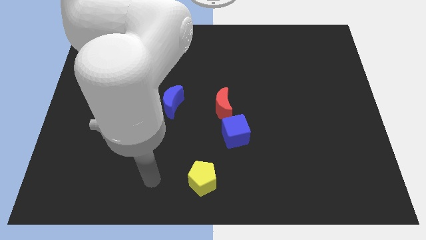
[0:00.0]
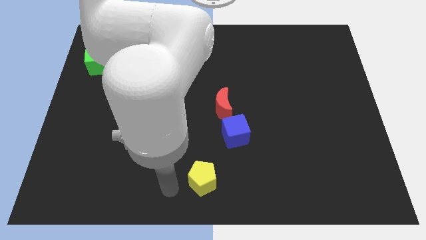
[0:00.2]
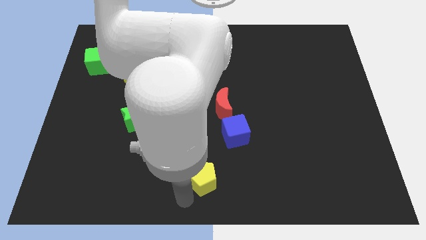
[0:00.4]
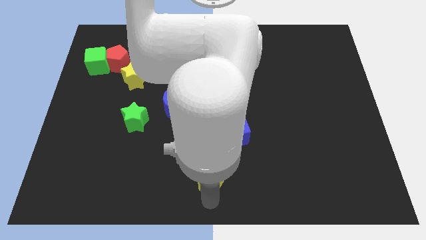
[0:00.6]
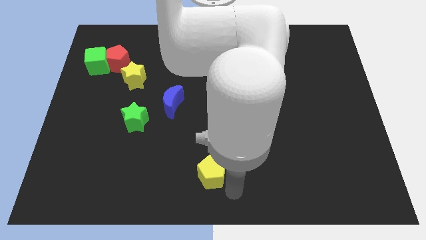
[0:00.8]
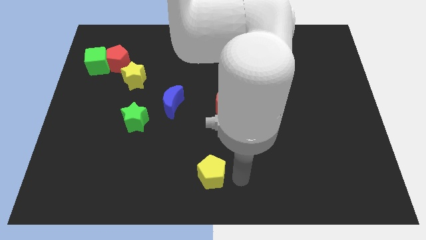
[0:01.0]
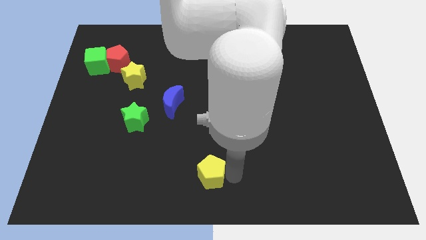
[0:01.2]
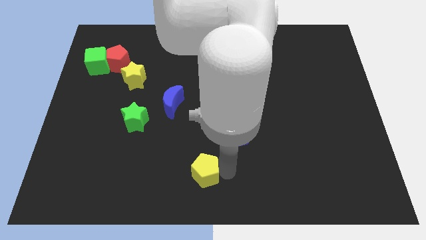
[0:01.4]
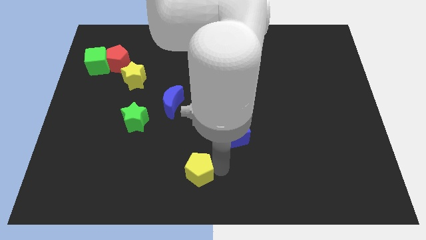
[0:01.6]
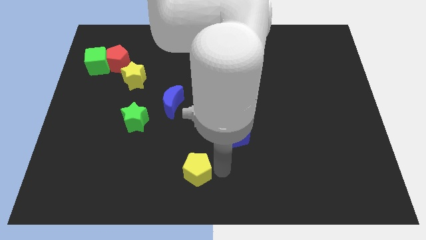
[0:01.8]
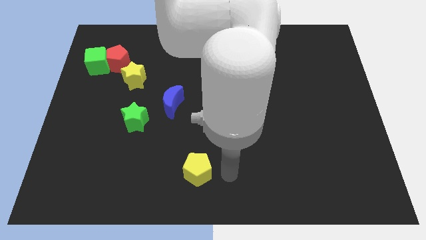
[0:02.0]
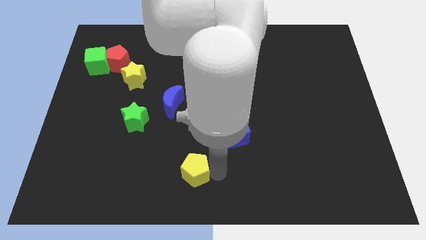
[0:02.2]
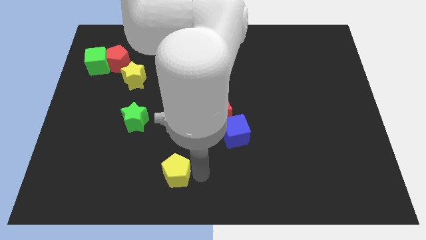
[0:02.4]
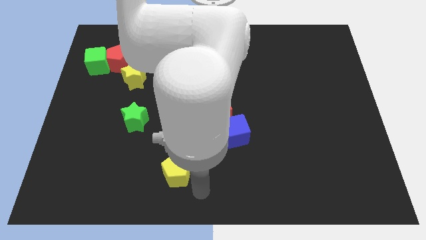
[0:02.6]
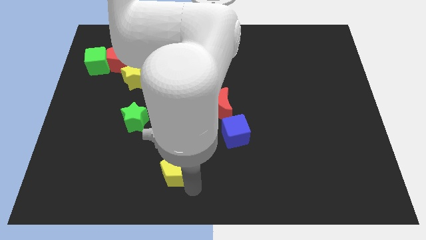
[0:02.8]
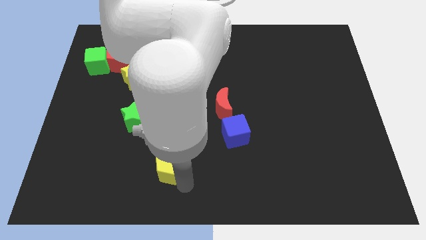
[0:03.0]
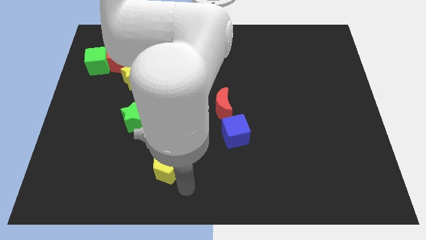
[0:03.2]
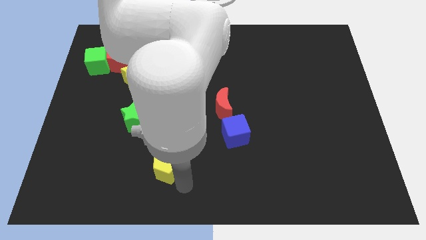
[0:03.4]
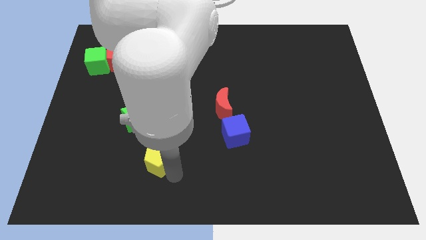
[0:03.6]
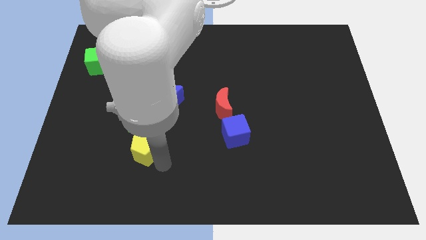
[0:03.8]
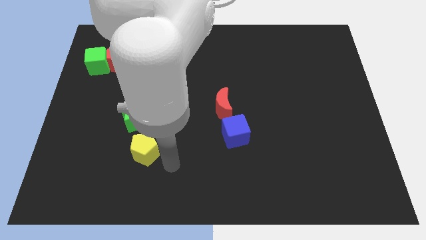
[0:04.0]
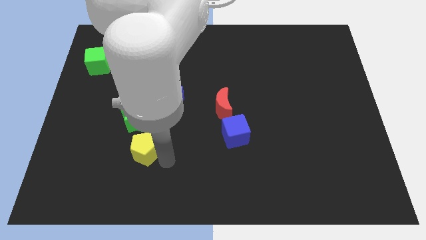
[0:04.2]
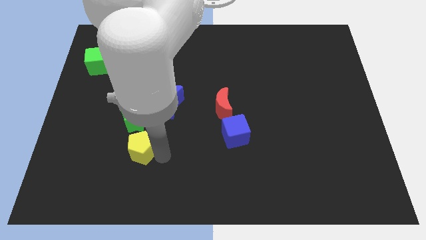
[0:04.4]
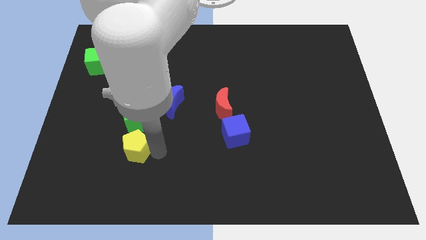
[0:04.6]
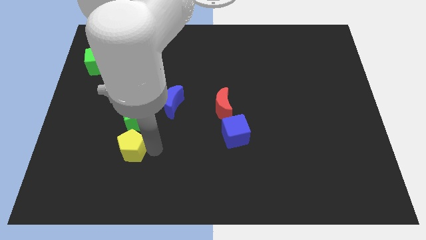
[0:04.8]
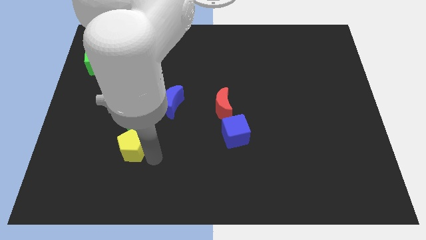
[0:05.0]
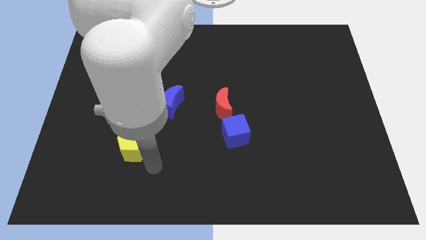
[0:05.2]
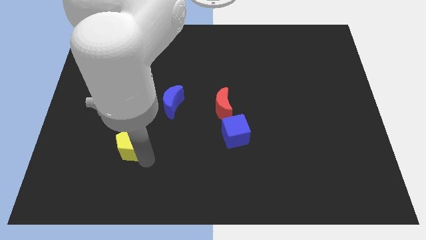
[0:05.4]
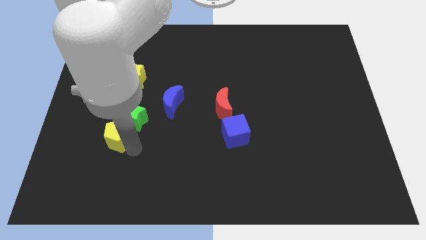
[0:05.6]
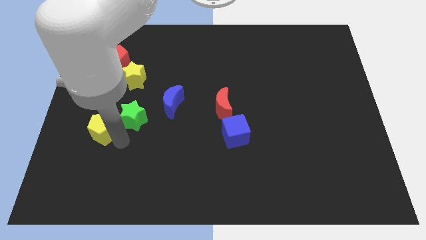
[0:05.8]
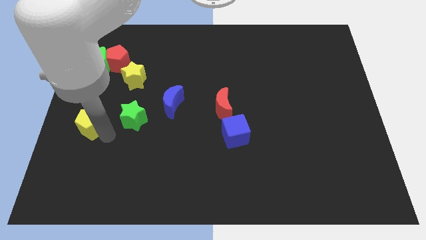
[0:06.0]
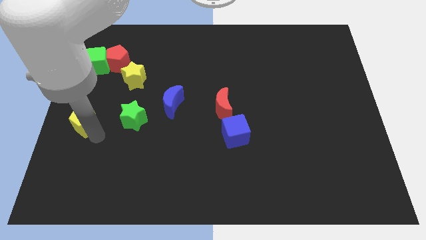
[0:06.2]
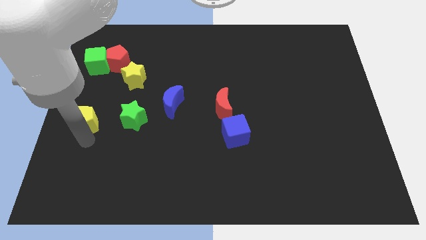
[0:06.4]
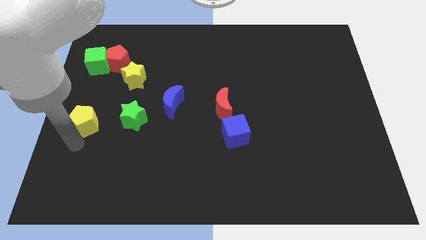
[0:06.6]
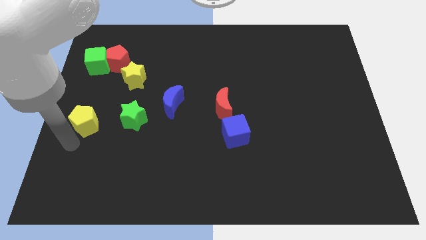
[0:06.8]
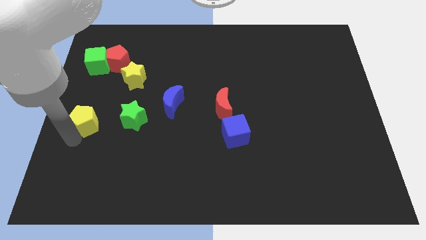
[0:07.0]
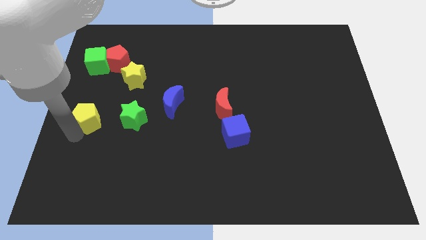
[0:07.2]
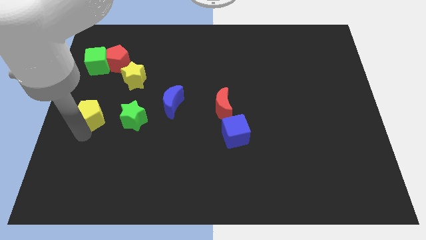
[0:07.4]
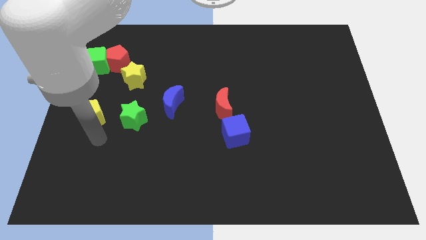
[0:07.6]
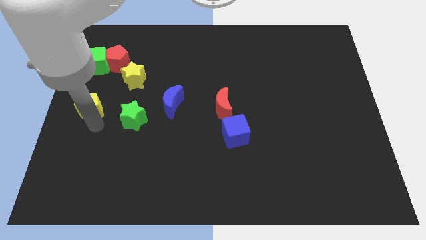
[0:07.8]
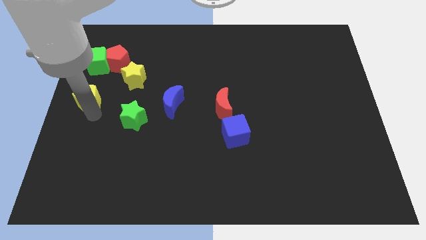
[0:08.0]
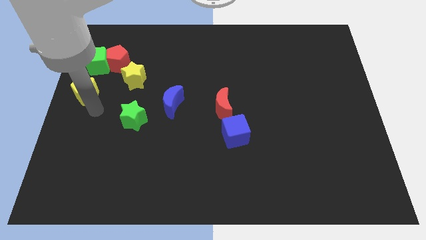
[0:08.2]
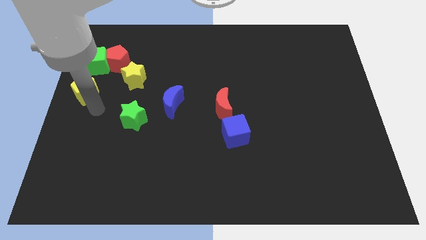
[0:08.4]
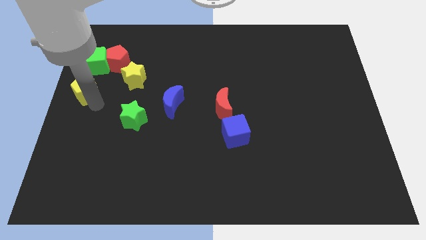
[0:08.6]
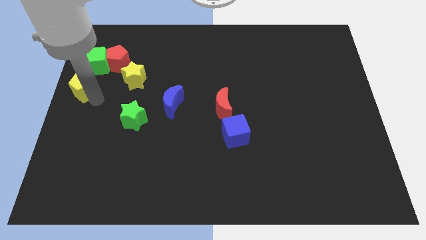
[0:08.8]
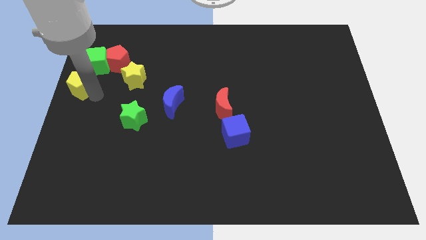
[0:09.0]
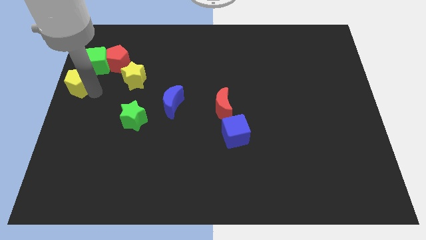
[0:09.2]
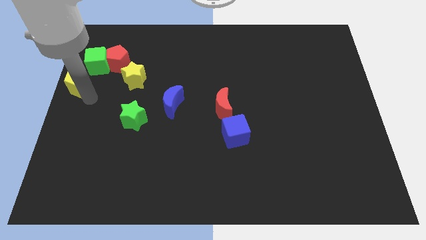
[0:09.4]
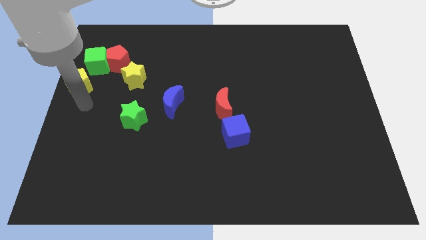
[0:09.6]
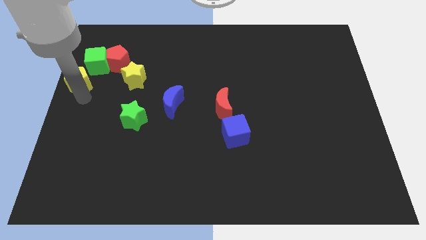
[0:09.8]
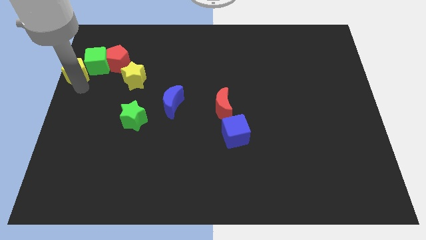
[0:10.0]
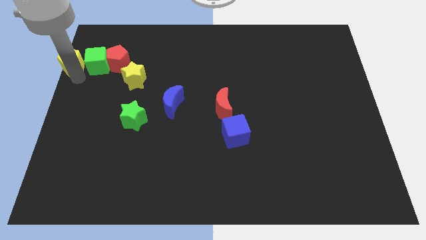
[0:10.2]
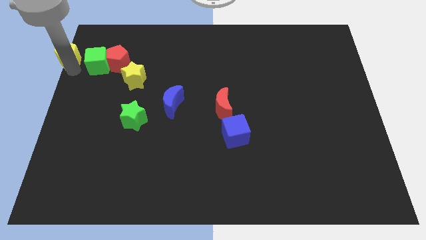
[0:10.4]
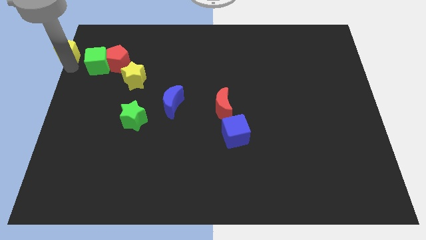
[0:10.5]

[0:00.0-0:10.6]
push the yellow pentagon to the top left corner

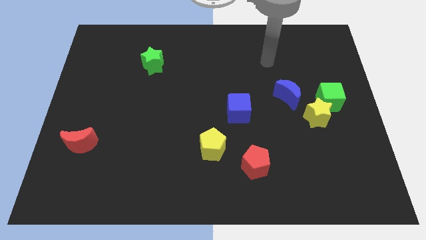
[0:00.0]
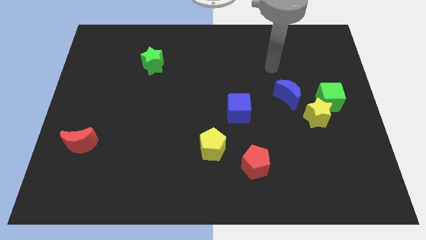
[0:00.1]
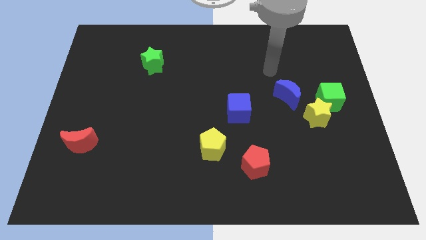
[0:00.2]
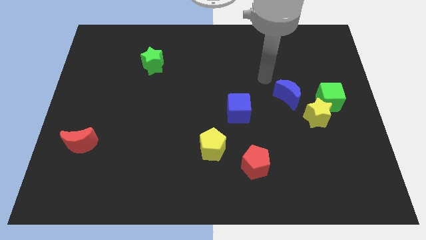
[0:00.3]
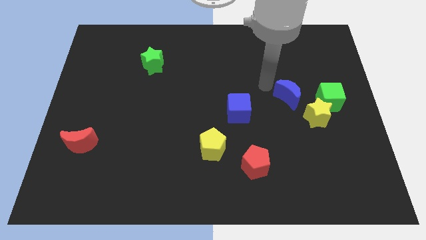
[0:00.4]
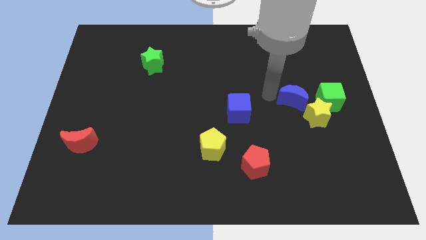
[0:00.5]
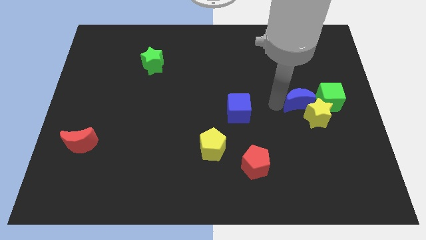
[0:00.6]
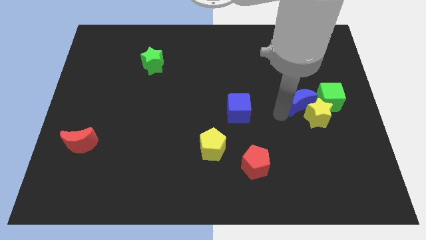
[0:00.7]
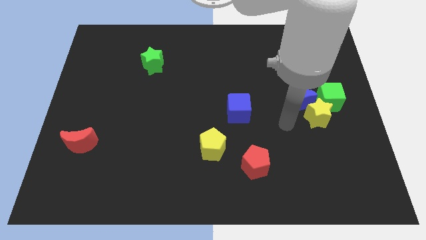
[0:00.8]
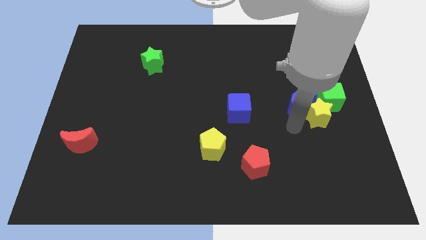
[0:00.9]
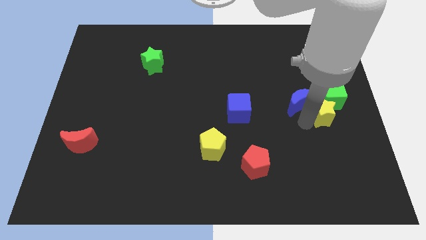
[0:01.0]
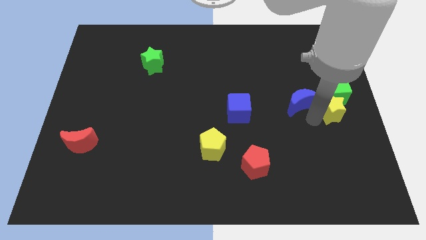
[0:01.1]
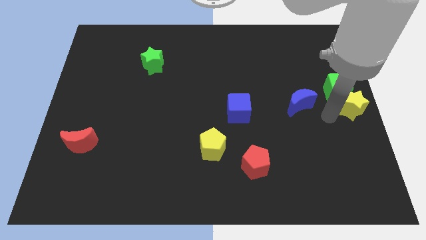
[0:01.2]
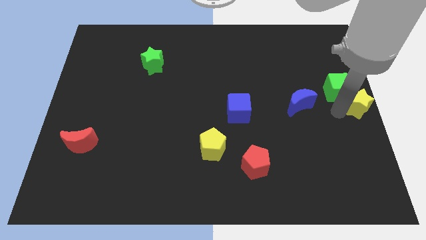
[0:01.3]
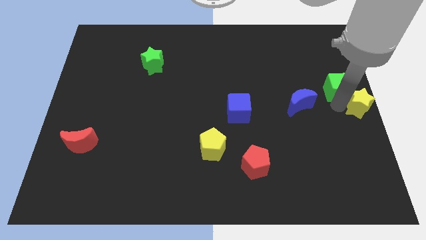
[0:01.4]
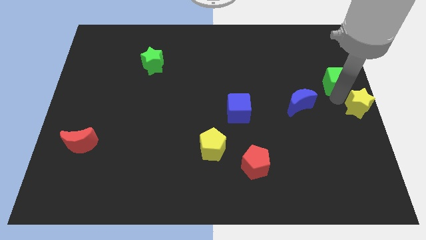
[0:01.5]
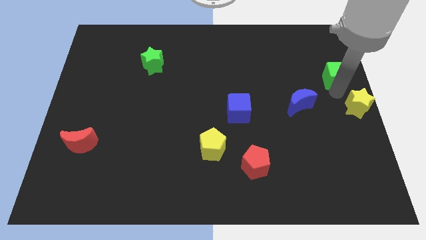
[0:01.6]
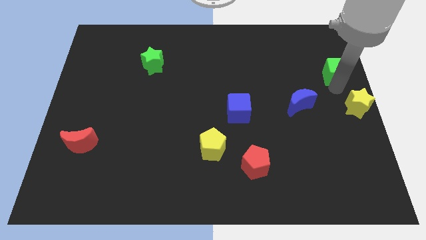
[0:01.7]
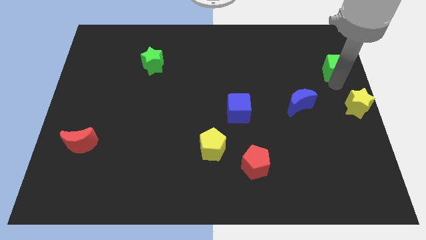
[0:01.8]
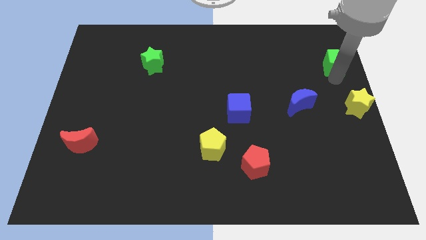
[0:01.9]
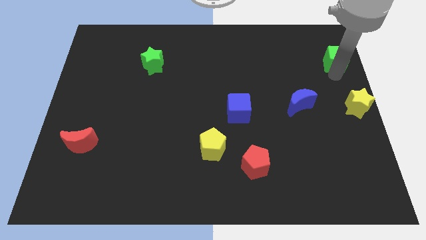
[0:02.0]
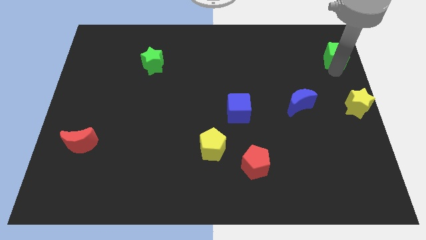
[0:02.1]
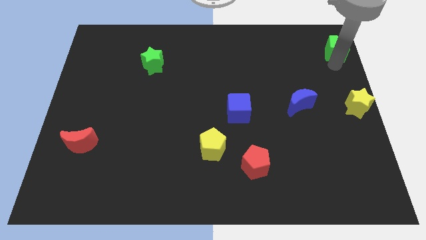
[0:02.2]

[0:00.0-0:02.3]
slide the green cube to the upper right corner
